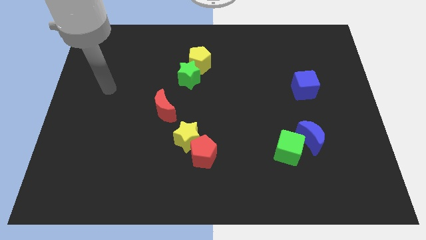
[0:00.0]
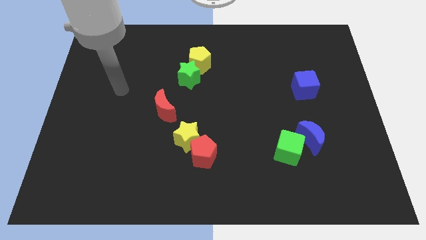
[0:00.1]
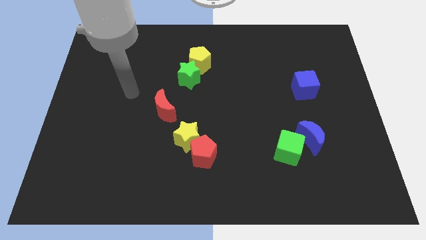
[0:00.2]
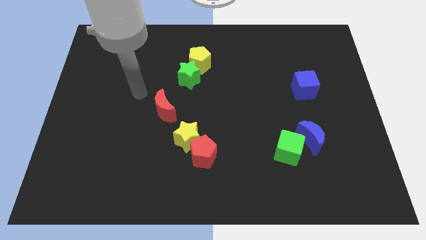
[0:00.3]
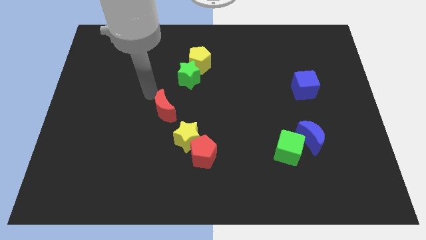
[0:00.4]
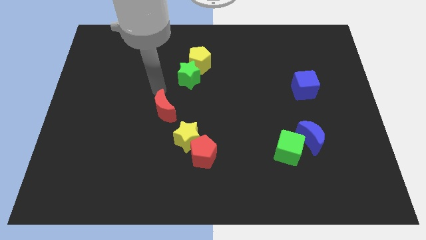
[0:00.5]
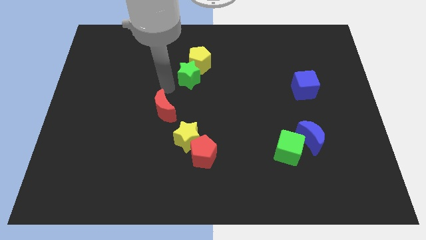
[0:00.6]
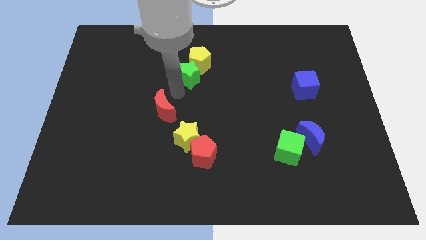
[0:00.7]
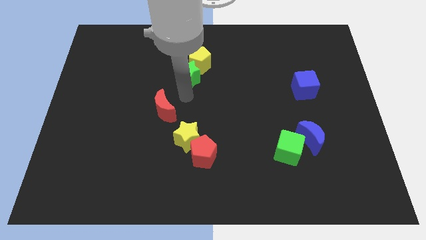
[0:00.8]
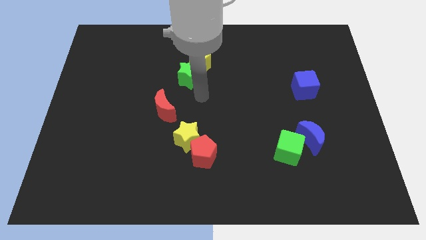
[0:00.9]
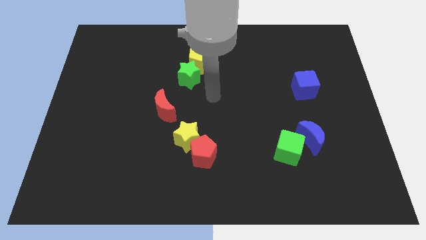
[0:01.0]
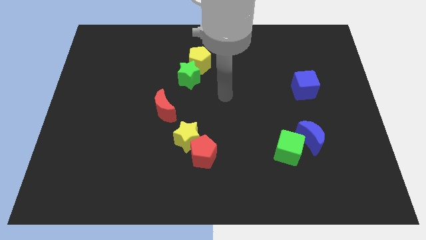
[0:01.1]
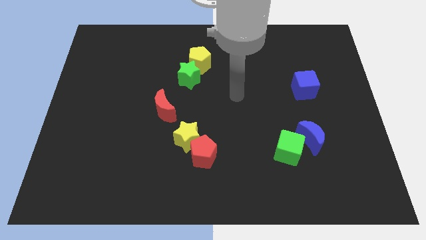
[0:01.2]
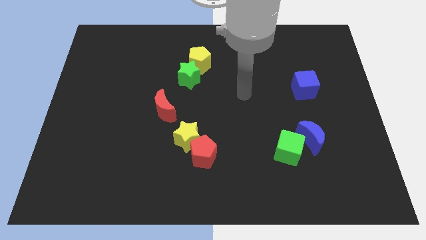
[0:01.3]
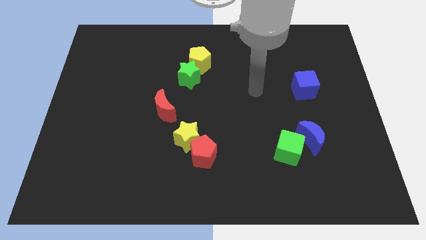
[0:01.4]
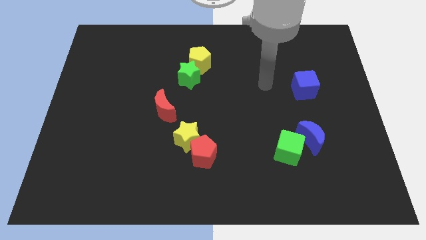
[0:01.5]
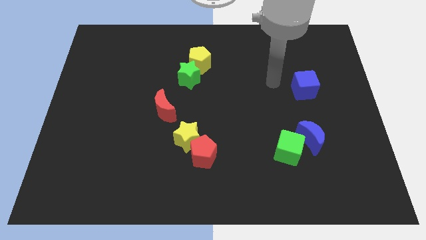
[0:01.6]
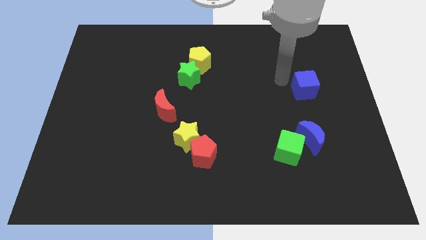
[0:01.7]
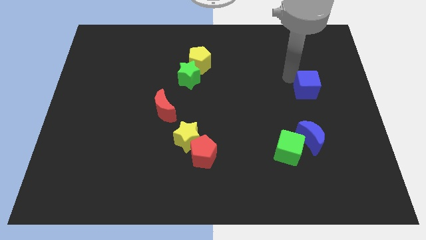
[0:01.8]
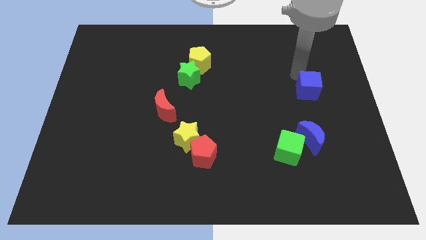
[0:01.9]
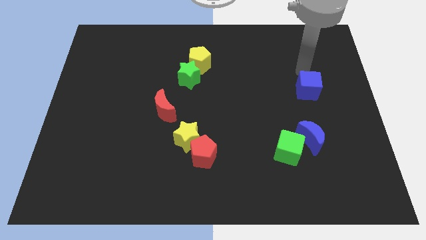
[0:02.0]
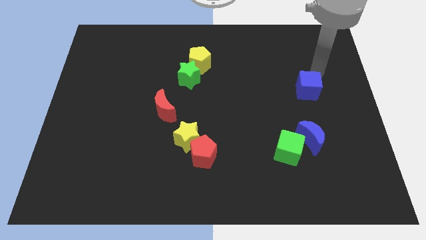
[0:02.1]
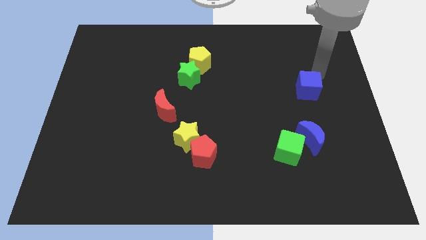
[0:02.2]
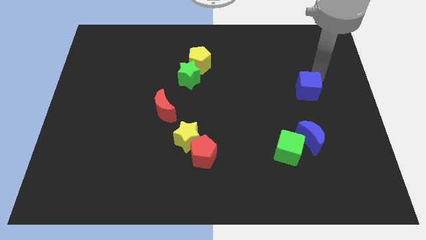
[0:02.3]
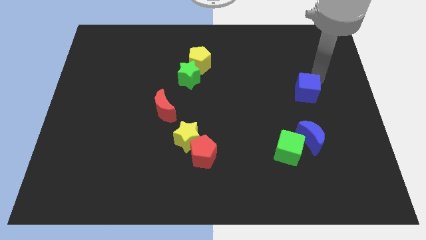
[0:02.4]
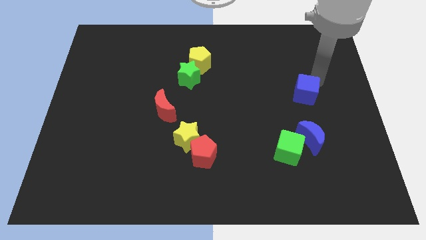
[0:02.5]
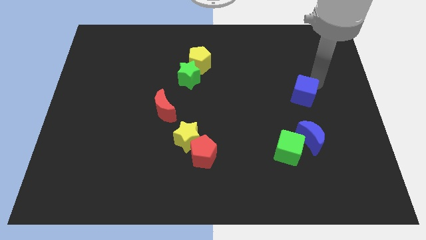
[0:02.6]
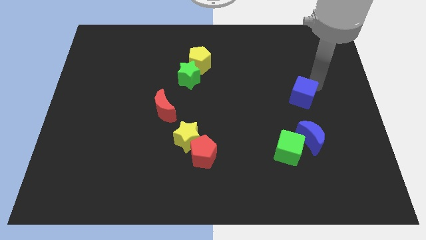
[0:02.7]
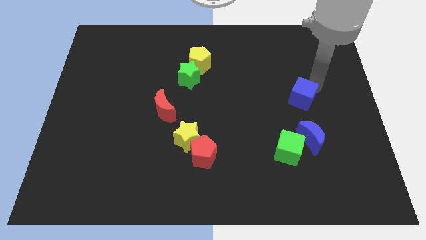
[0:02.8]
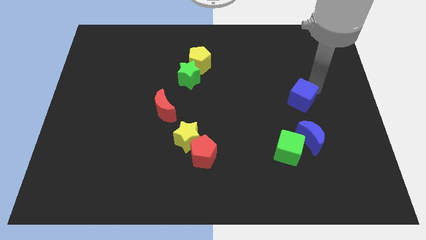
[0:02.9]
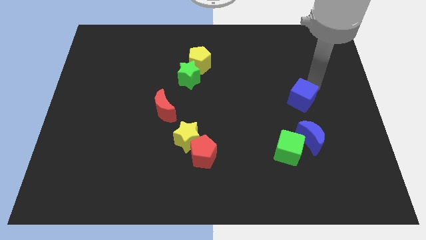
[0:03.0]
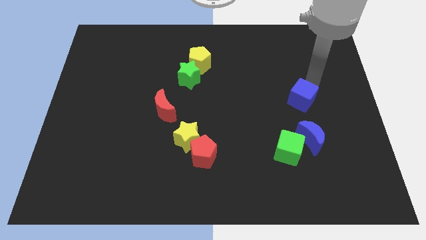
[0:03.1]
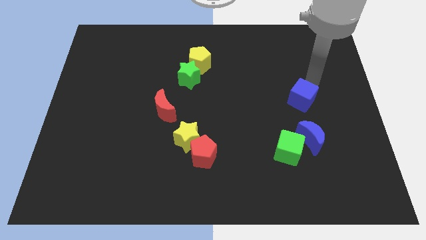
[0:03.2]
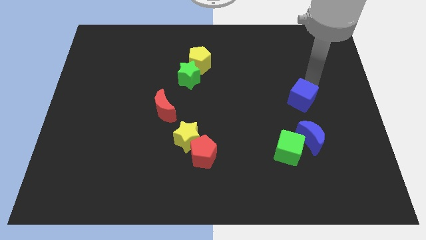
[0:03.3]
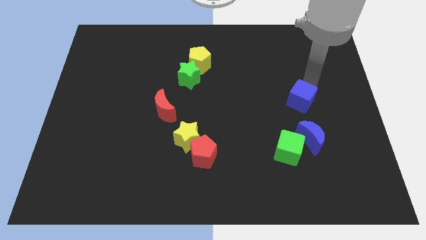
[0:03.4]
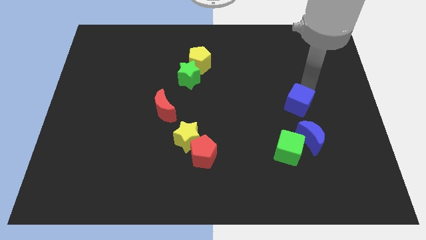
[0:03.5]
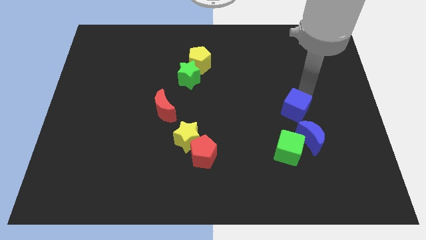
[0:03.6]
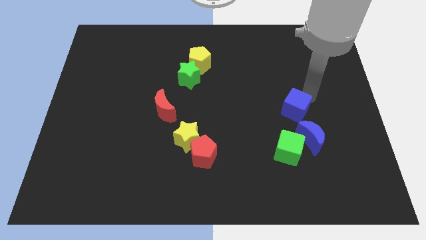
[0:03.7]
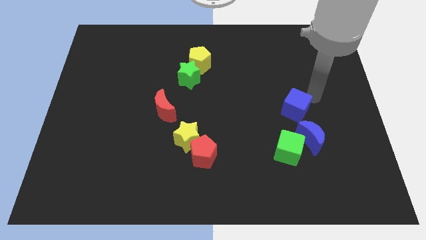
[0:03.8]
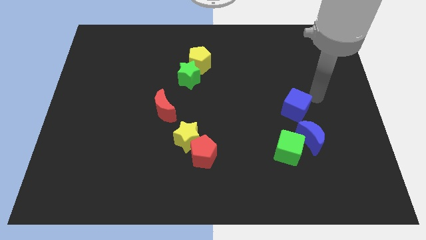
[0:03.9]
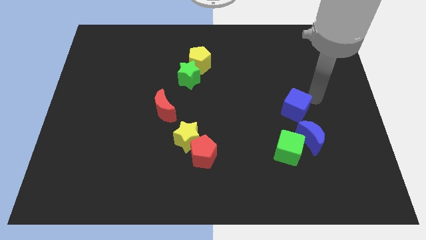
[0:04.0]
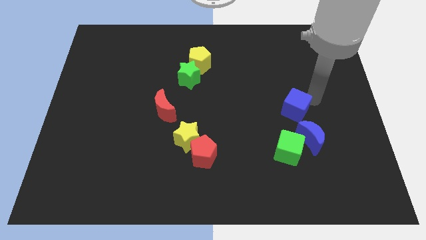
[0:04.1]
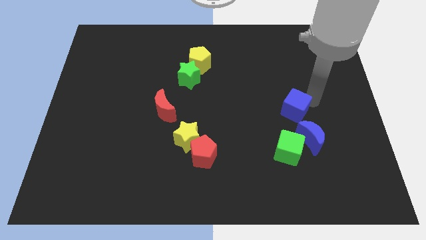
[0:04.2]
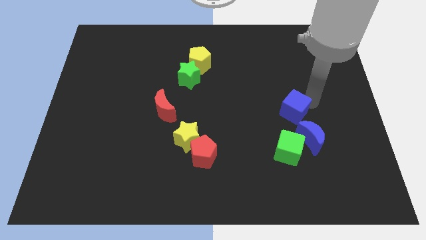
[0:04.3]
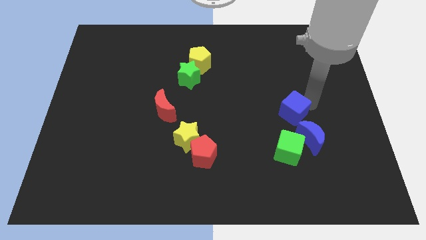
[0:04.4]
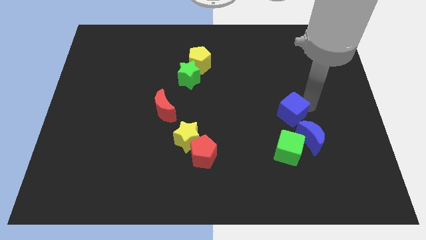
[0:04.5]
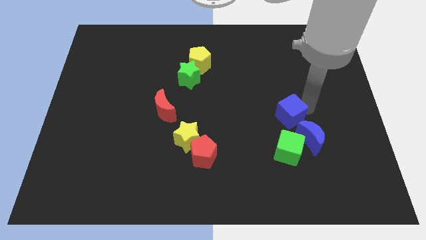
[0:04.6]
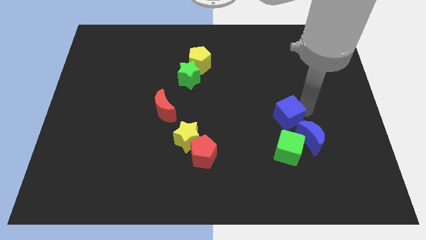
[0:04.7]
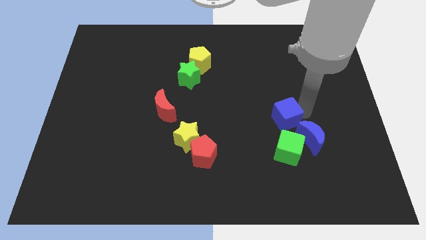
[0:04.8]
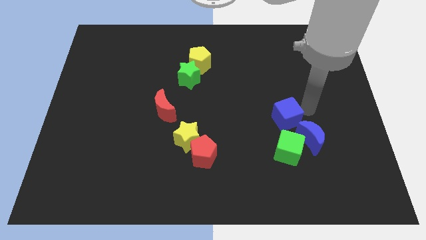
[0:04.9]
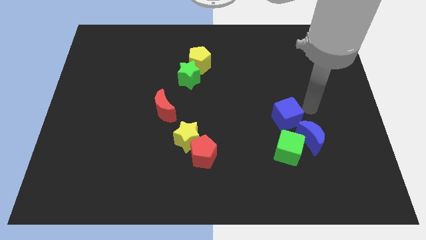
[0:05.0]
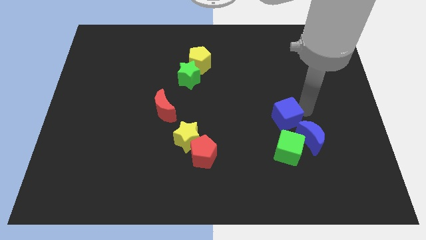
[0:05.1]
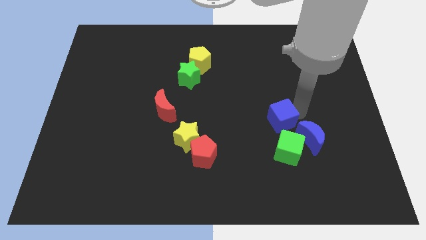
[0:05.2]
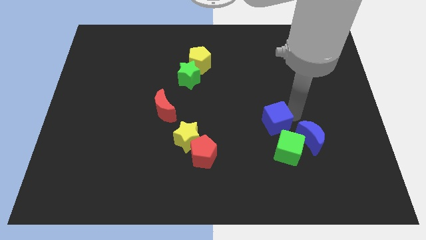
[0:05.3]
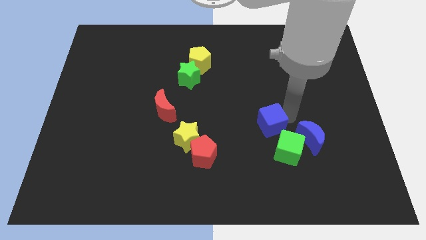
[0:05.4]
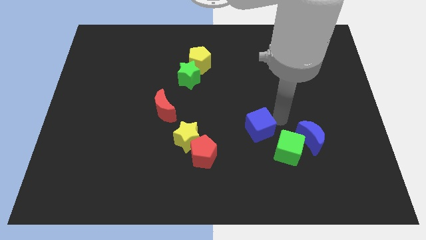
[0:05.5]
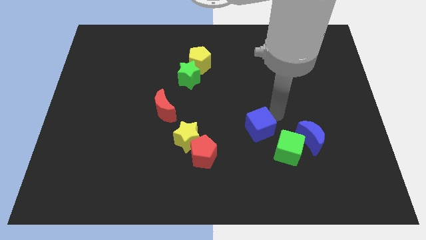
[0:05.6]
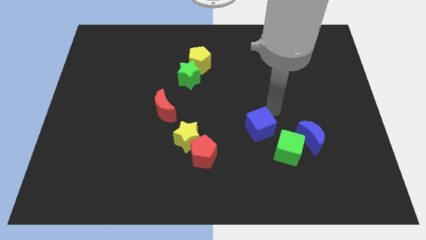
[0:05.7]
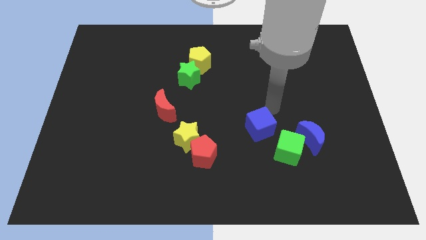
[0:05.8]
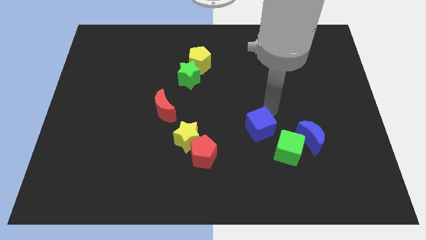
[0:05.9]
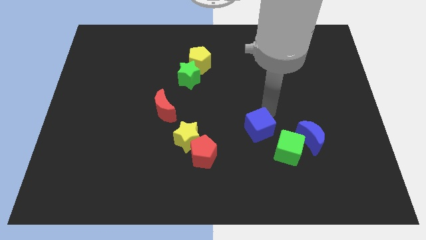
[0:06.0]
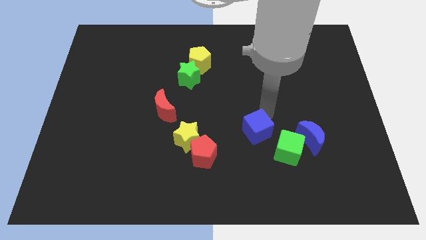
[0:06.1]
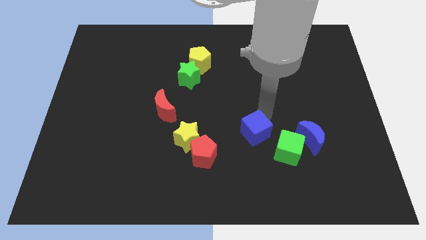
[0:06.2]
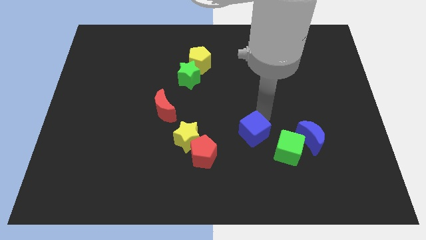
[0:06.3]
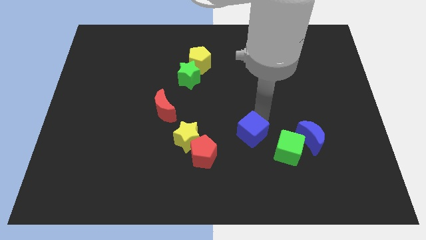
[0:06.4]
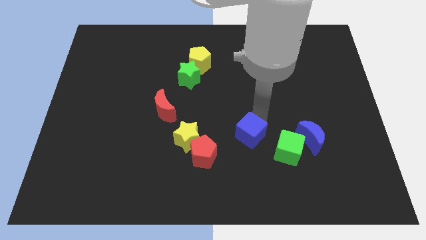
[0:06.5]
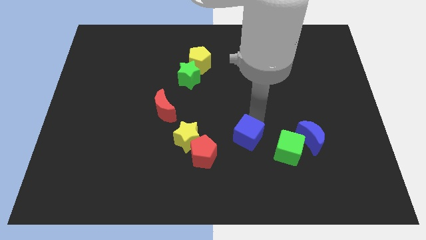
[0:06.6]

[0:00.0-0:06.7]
push the blue cube down and left diagonally

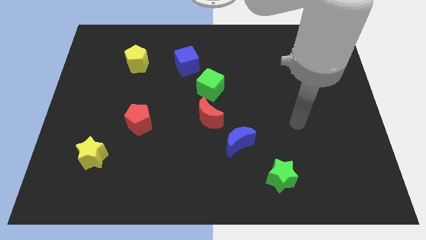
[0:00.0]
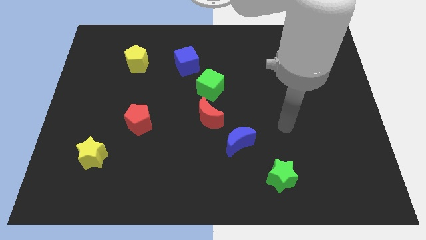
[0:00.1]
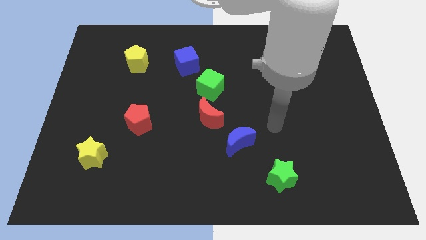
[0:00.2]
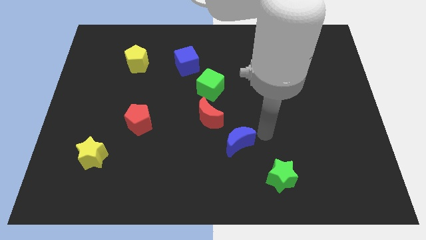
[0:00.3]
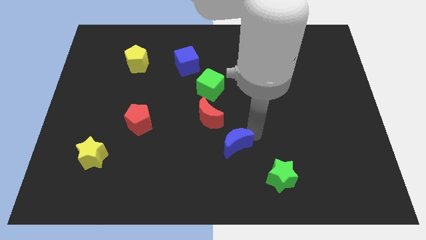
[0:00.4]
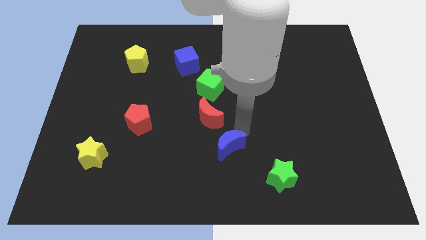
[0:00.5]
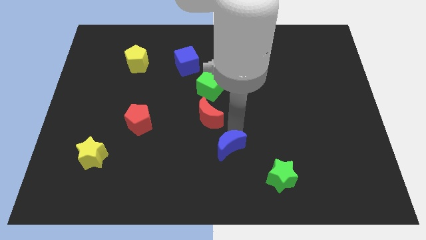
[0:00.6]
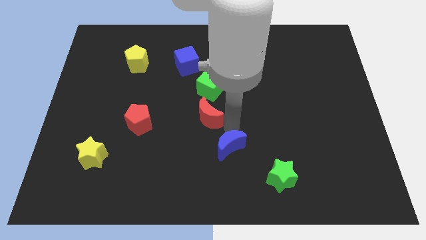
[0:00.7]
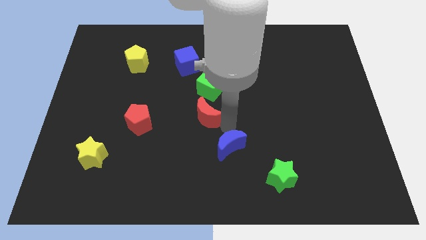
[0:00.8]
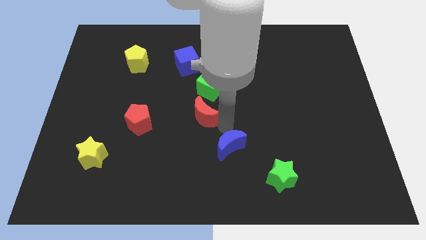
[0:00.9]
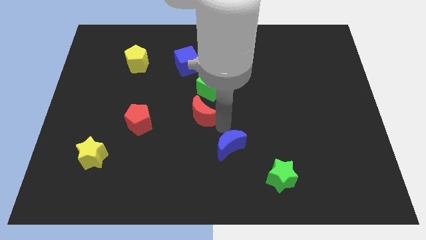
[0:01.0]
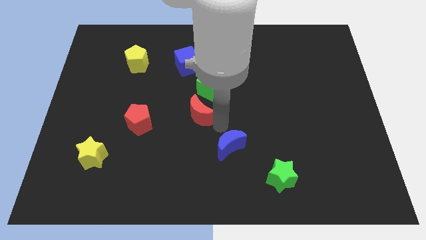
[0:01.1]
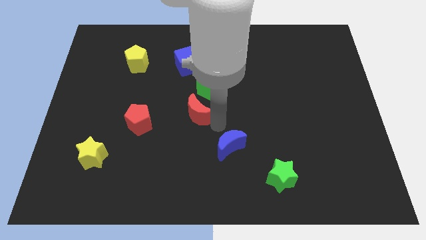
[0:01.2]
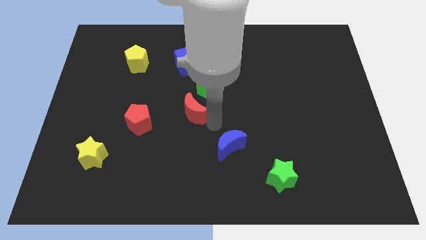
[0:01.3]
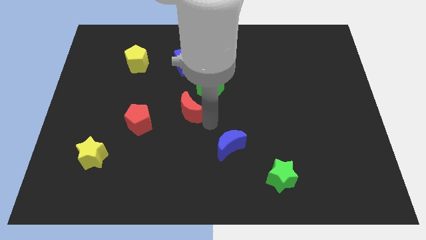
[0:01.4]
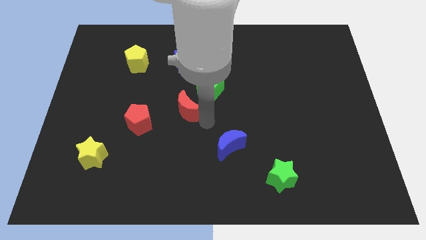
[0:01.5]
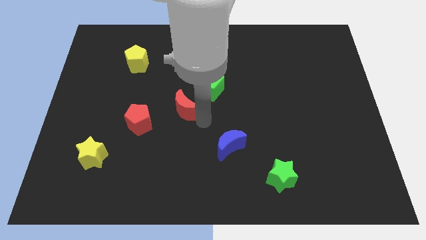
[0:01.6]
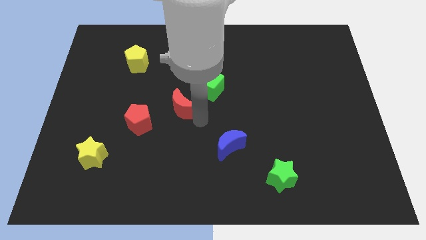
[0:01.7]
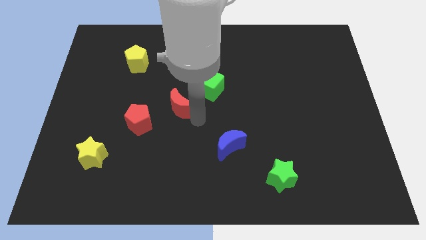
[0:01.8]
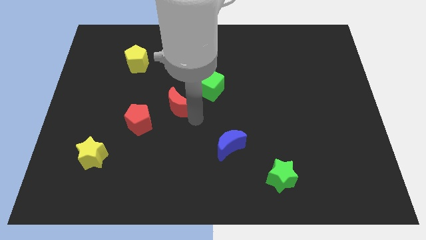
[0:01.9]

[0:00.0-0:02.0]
slide the red moon a bit to the left
